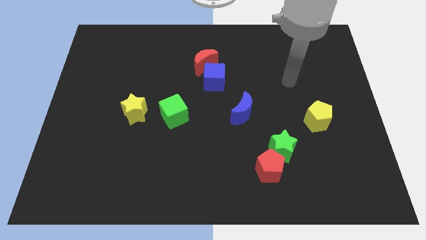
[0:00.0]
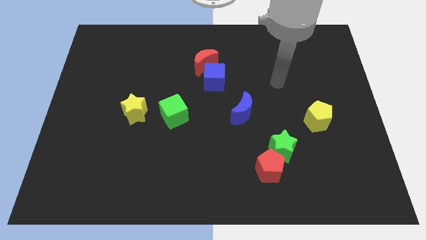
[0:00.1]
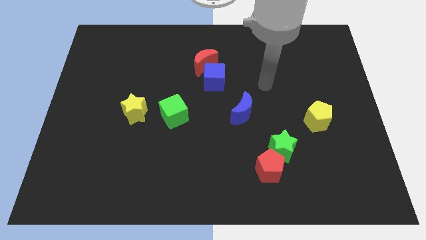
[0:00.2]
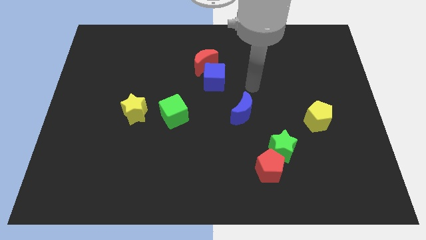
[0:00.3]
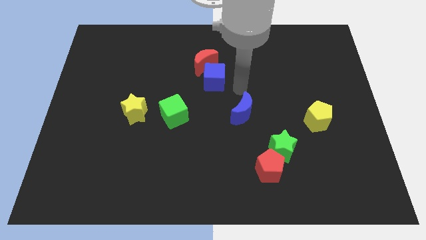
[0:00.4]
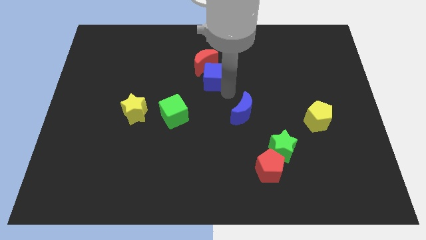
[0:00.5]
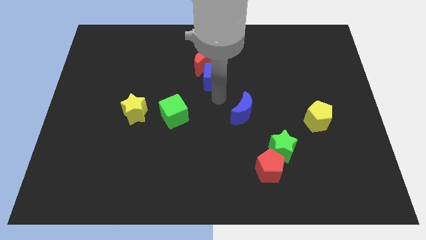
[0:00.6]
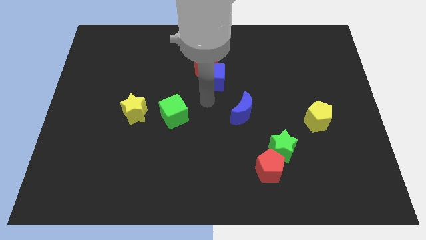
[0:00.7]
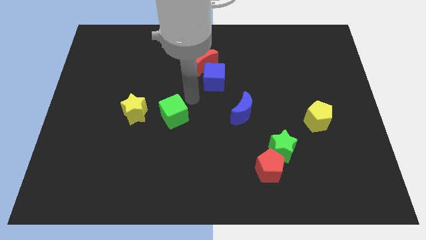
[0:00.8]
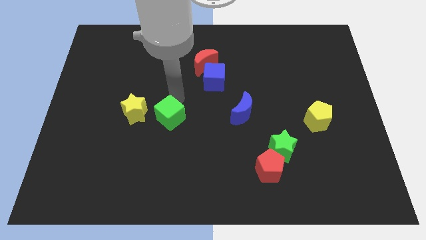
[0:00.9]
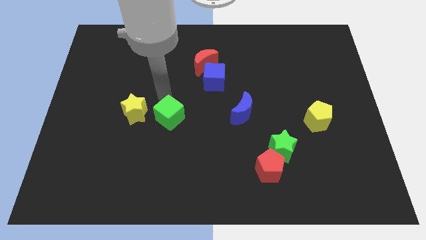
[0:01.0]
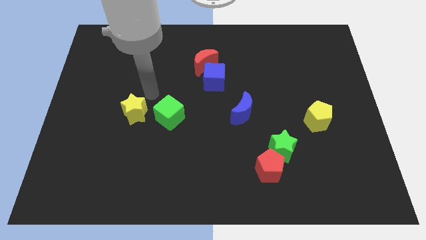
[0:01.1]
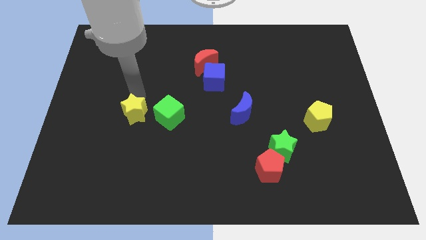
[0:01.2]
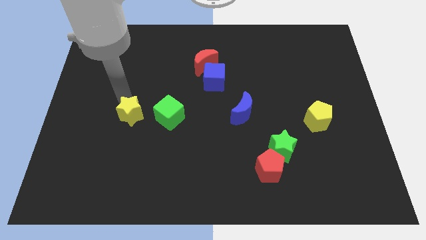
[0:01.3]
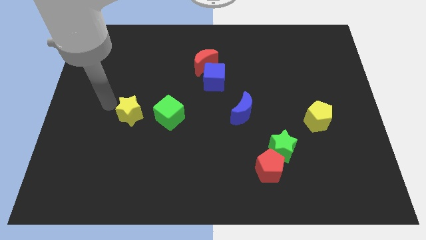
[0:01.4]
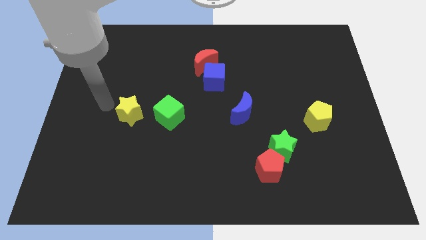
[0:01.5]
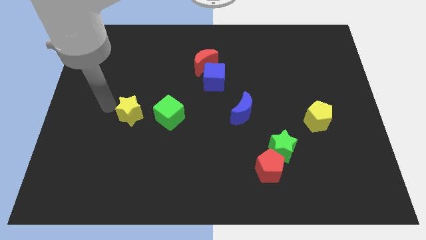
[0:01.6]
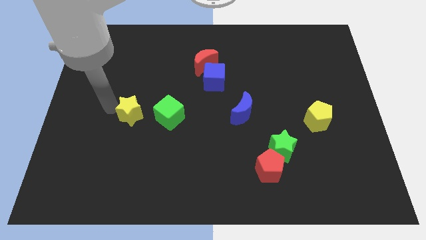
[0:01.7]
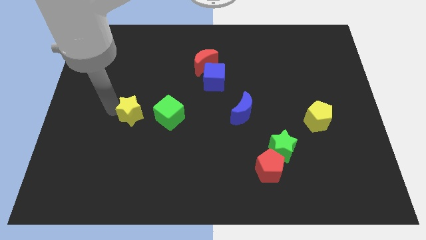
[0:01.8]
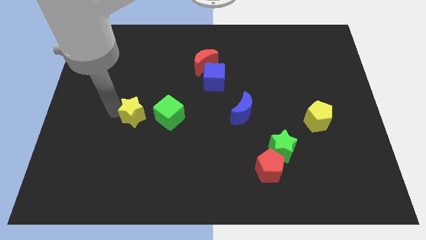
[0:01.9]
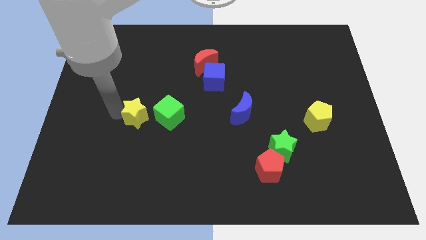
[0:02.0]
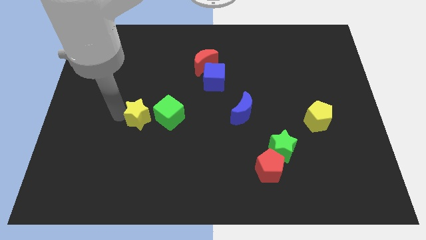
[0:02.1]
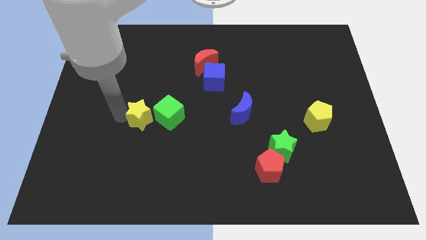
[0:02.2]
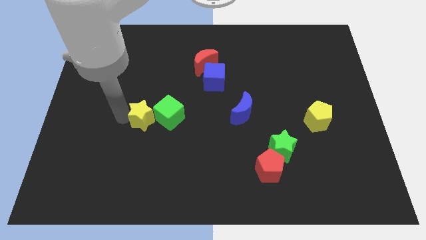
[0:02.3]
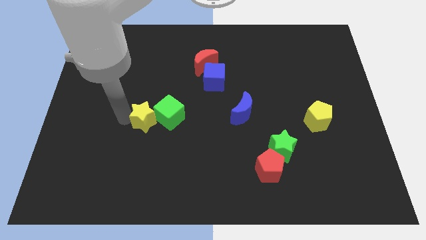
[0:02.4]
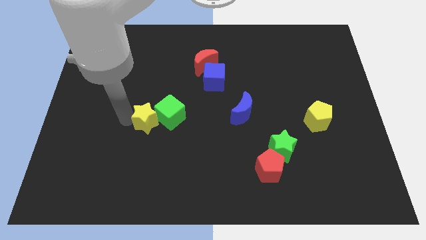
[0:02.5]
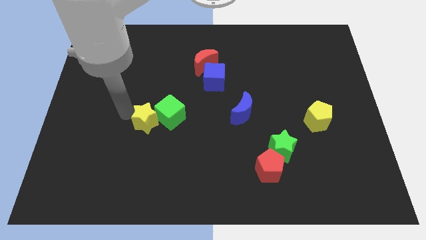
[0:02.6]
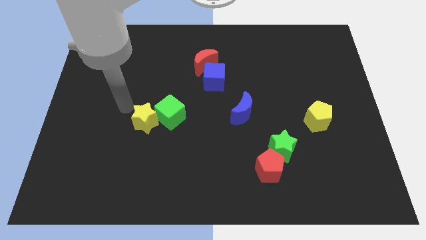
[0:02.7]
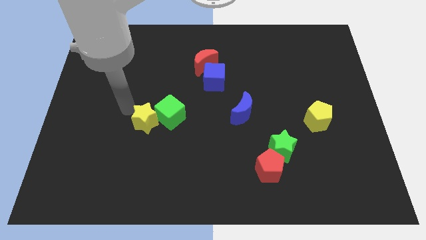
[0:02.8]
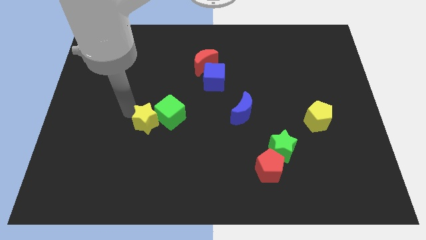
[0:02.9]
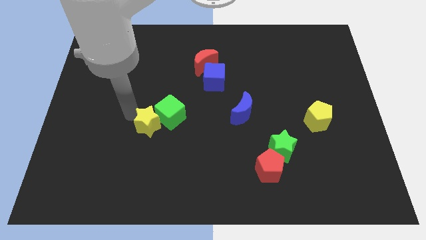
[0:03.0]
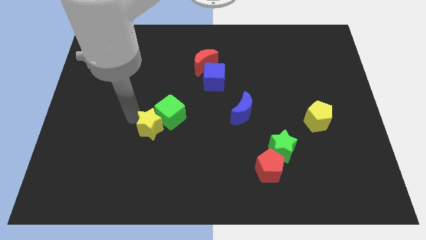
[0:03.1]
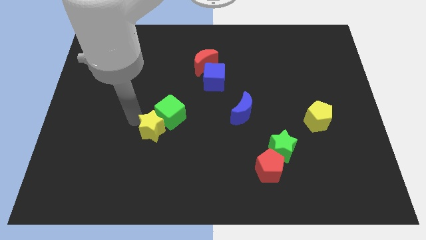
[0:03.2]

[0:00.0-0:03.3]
slide the yellow star down and then right a little bit

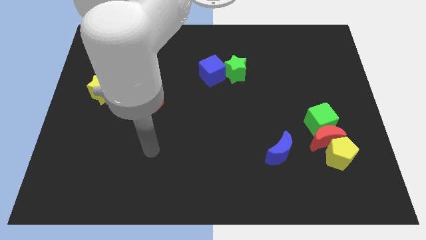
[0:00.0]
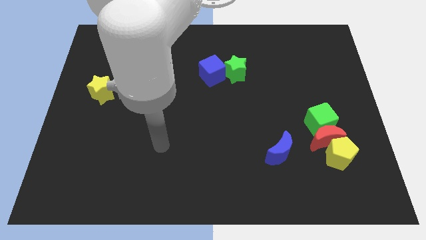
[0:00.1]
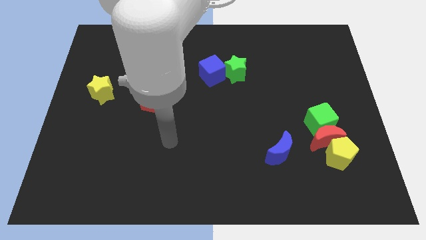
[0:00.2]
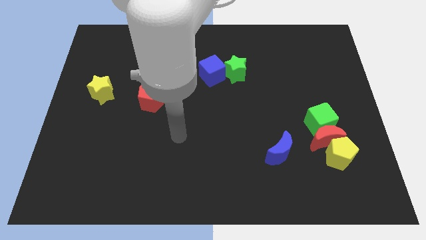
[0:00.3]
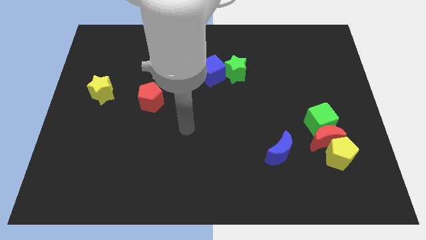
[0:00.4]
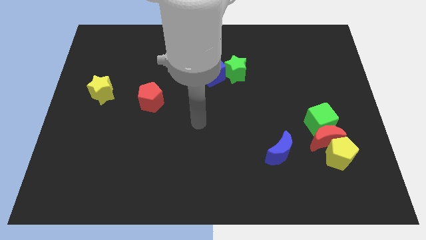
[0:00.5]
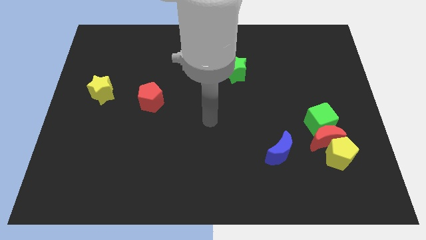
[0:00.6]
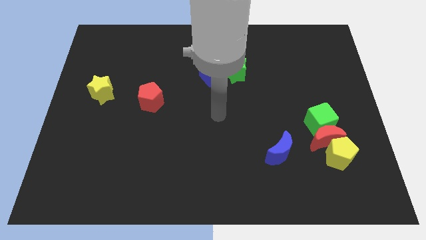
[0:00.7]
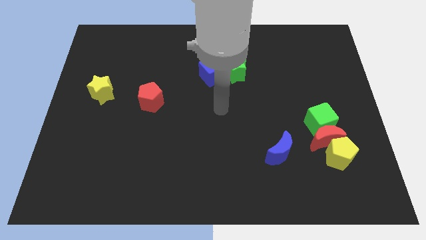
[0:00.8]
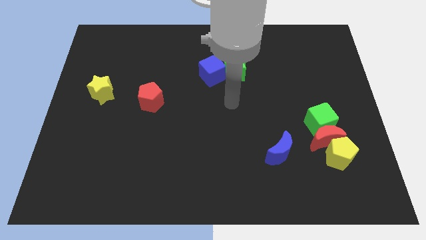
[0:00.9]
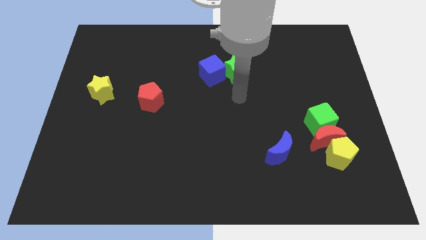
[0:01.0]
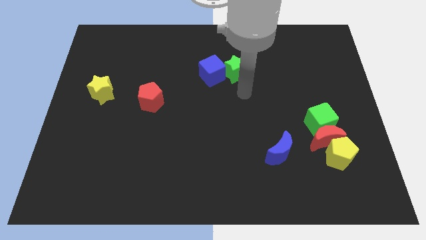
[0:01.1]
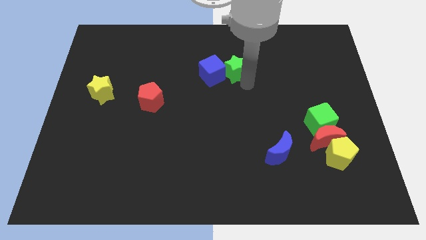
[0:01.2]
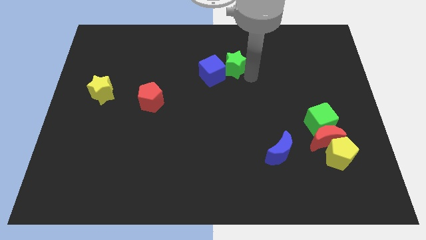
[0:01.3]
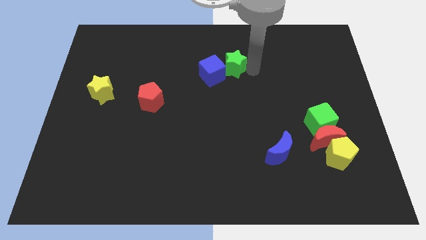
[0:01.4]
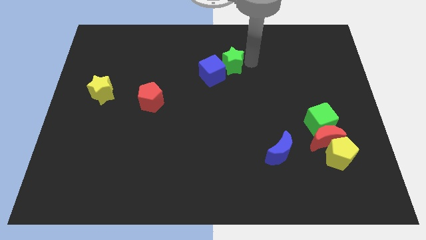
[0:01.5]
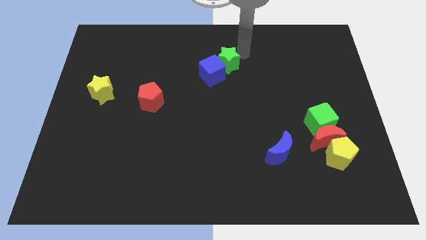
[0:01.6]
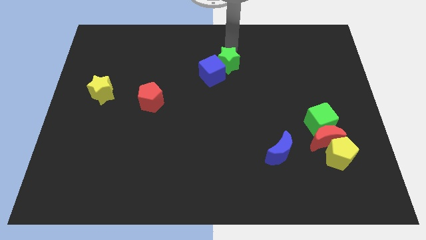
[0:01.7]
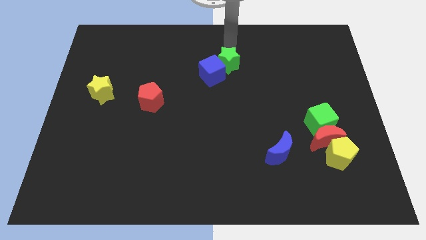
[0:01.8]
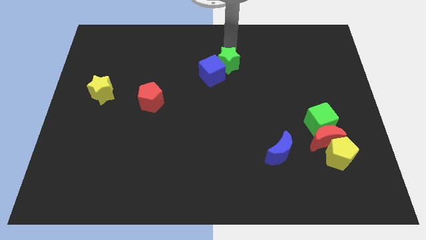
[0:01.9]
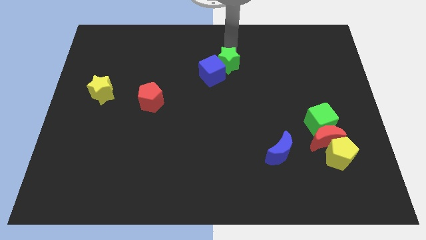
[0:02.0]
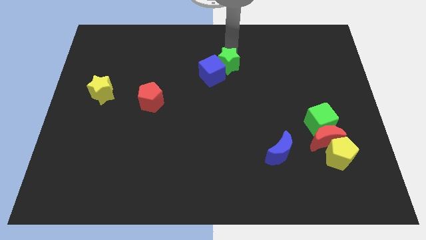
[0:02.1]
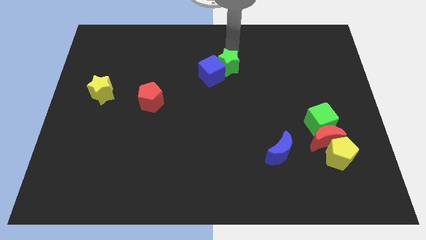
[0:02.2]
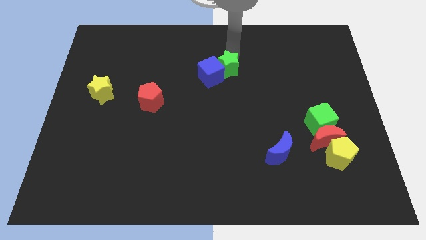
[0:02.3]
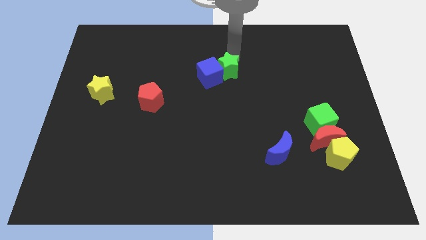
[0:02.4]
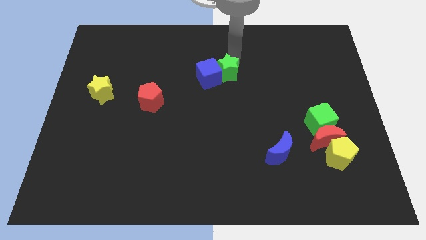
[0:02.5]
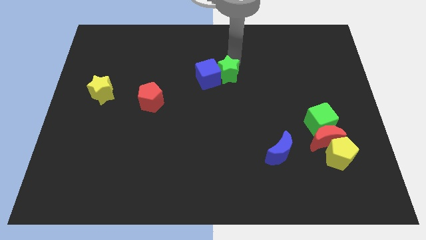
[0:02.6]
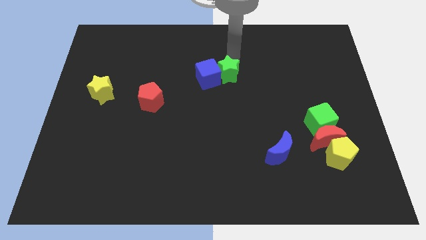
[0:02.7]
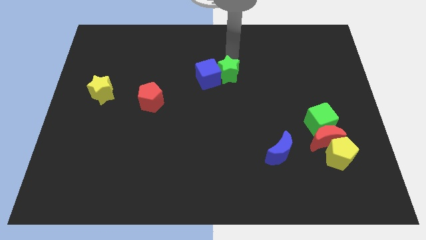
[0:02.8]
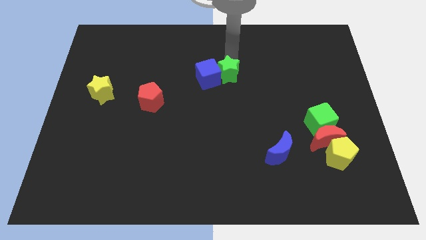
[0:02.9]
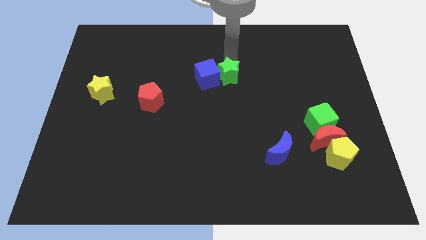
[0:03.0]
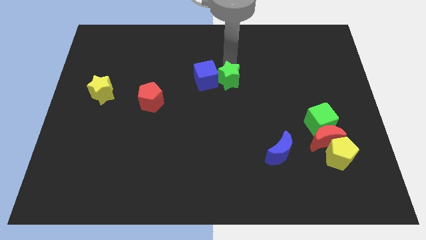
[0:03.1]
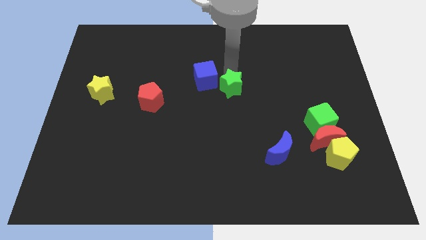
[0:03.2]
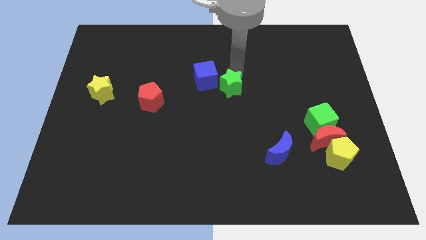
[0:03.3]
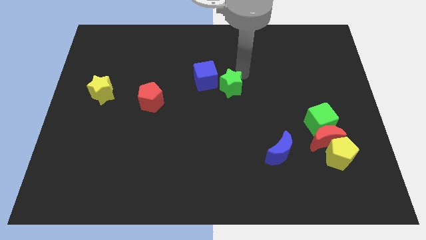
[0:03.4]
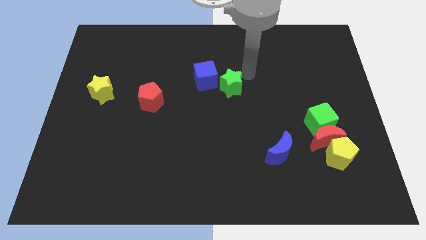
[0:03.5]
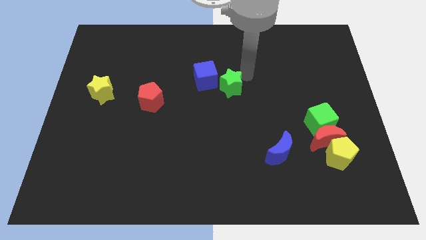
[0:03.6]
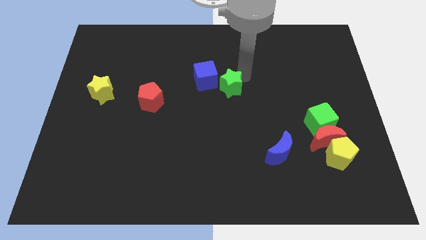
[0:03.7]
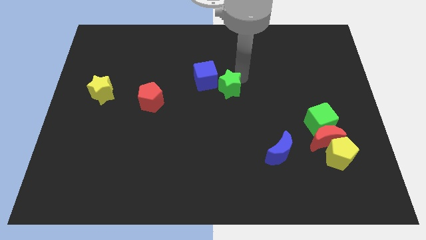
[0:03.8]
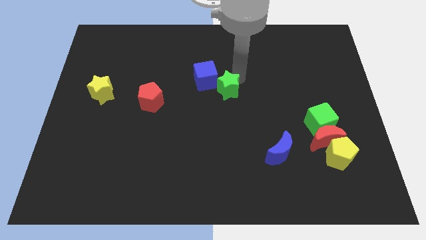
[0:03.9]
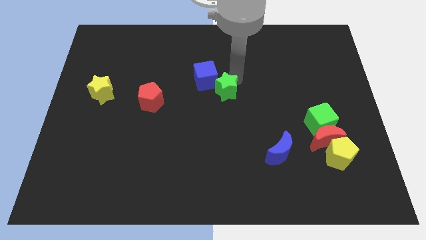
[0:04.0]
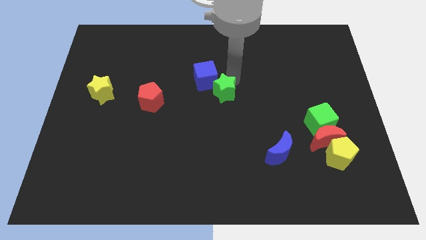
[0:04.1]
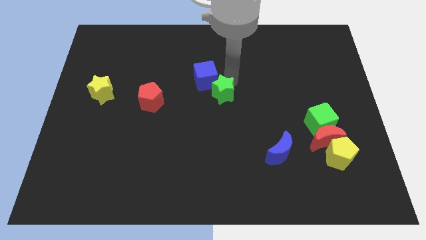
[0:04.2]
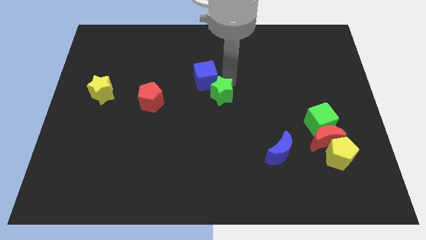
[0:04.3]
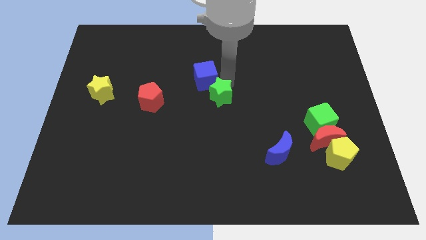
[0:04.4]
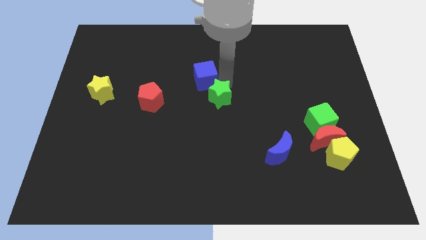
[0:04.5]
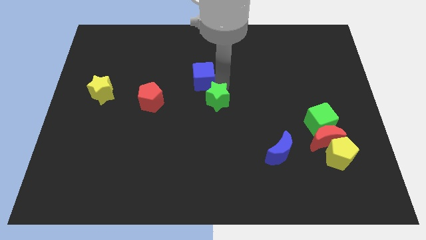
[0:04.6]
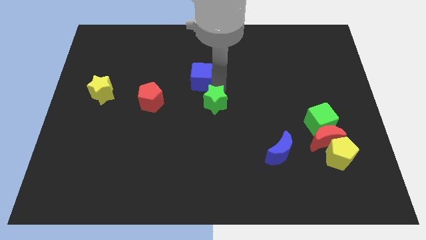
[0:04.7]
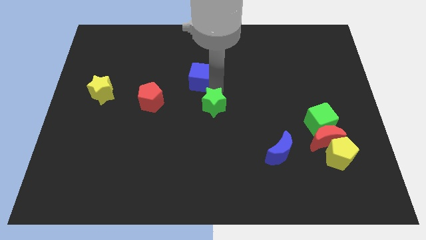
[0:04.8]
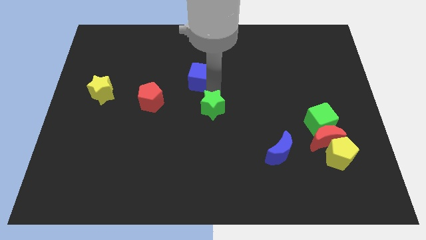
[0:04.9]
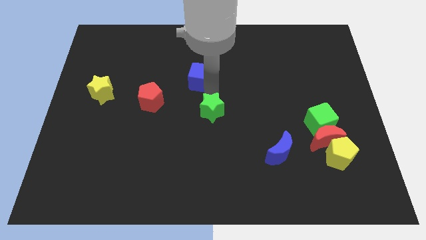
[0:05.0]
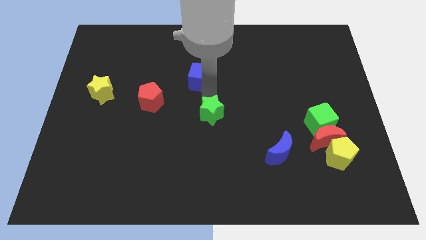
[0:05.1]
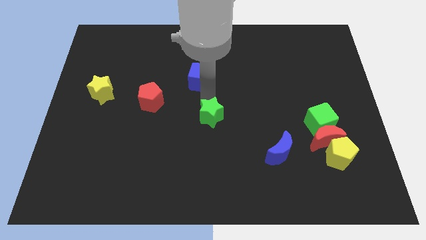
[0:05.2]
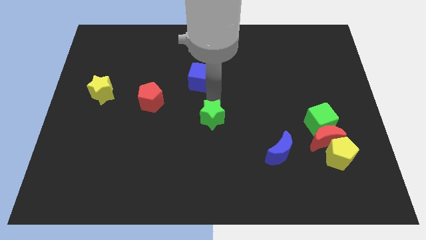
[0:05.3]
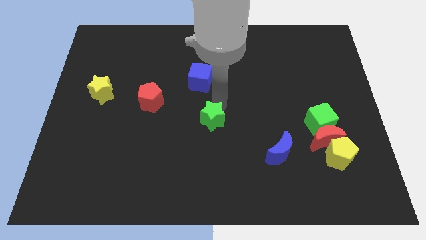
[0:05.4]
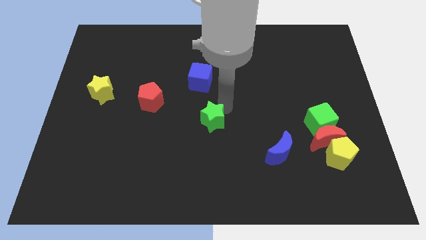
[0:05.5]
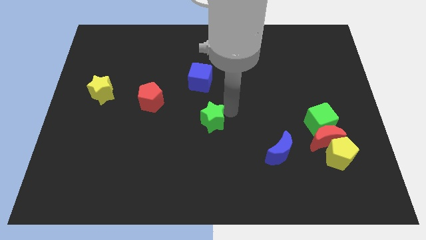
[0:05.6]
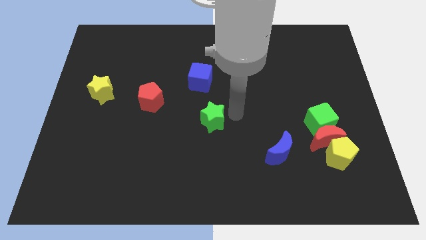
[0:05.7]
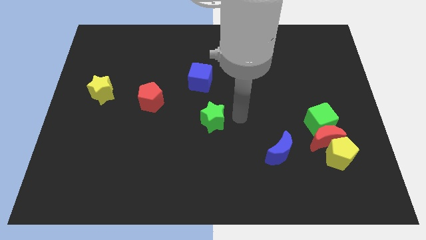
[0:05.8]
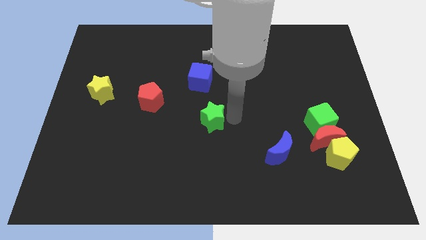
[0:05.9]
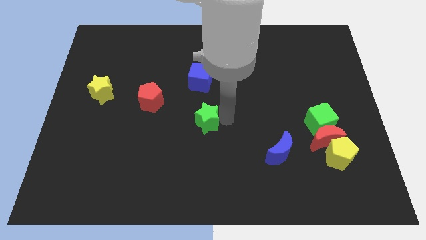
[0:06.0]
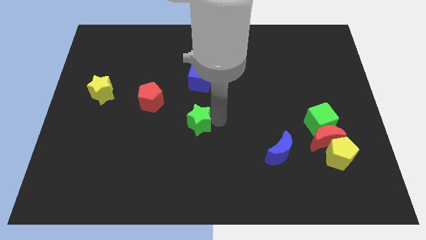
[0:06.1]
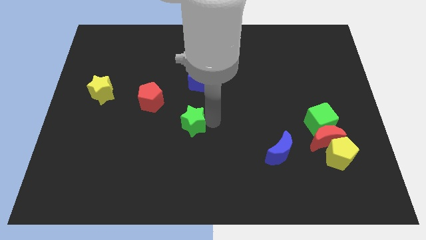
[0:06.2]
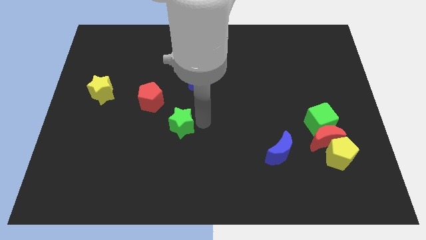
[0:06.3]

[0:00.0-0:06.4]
move the green star downwards and left diagonally
